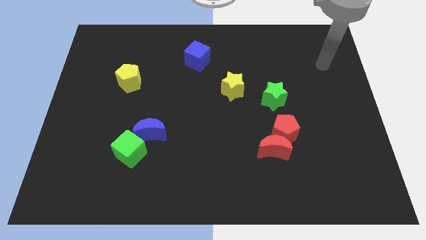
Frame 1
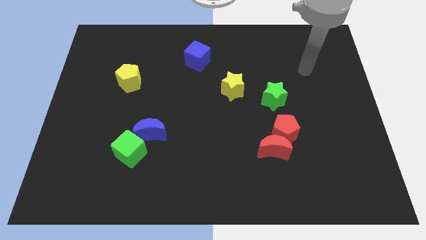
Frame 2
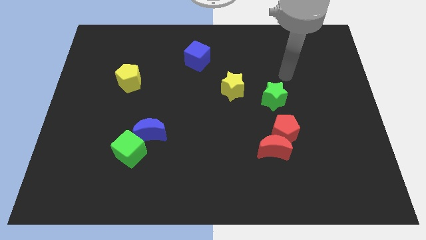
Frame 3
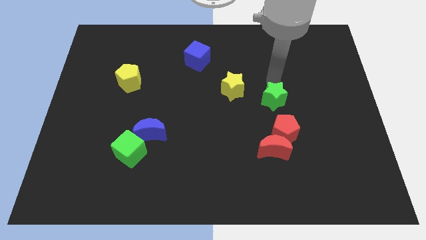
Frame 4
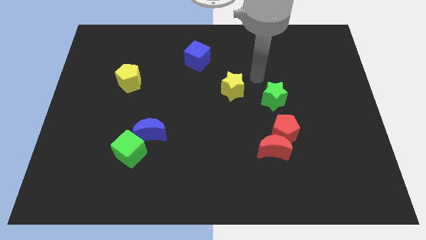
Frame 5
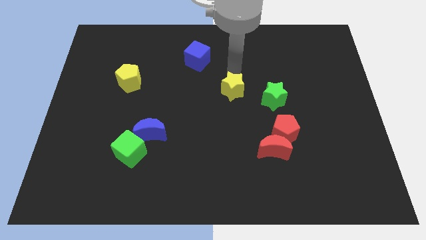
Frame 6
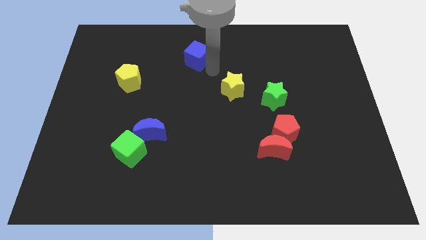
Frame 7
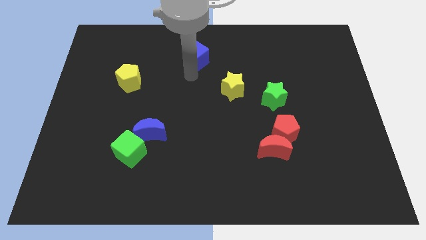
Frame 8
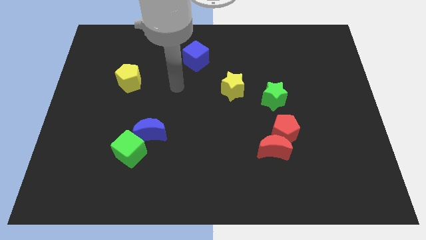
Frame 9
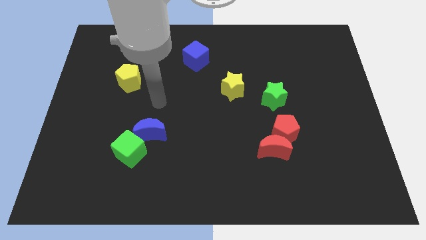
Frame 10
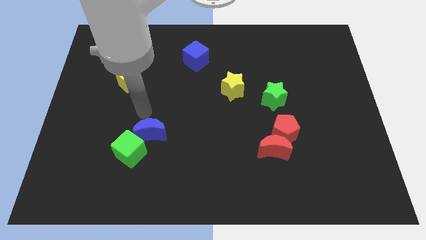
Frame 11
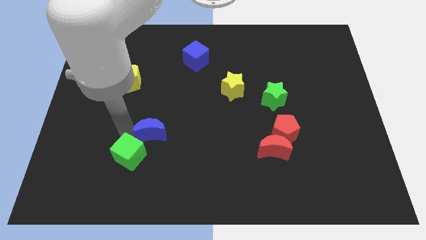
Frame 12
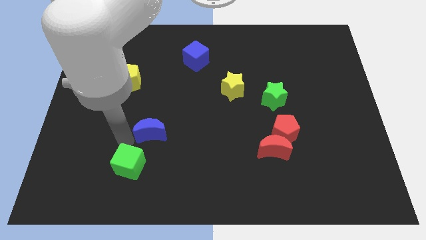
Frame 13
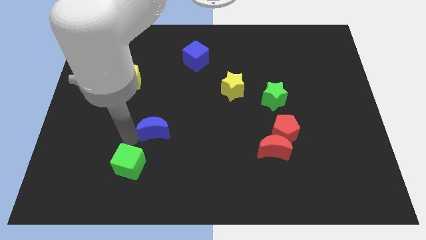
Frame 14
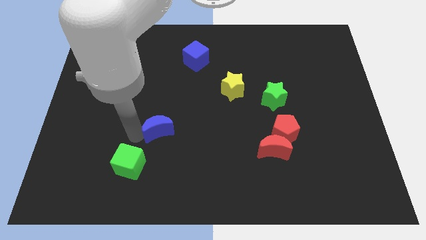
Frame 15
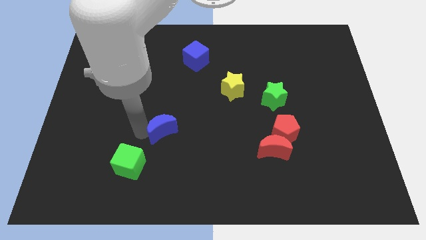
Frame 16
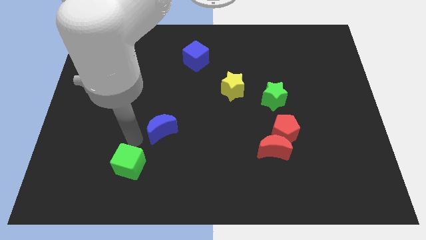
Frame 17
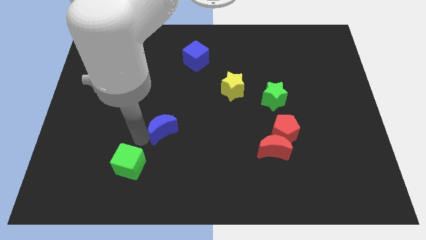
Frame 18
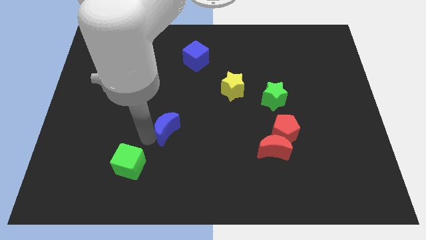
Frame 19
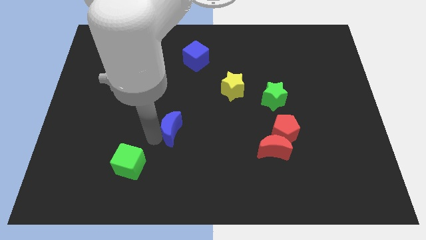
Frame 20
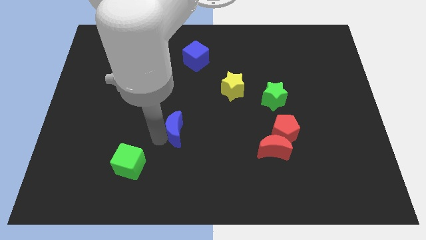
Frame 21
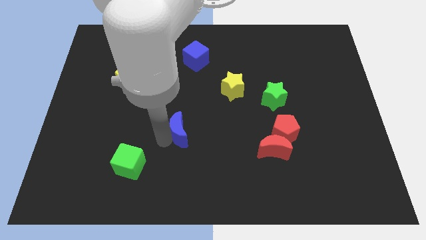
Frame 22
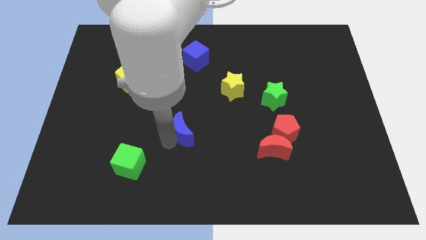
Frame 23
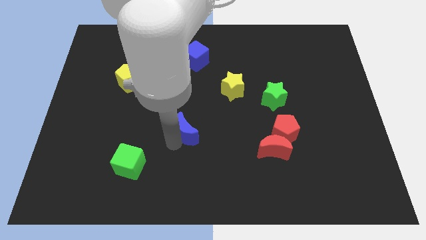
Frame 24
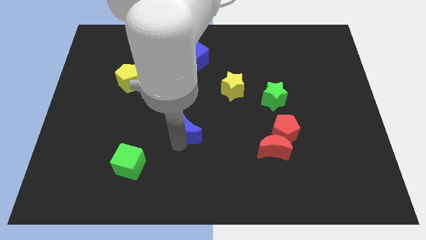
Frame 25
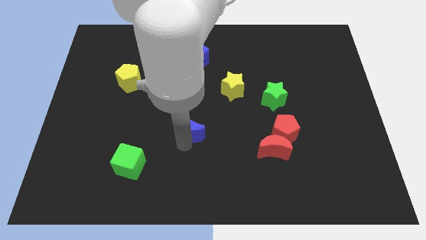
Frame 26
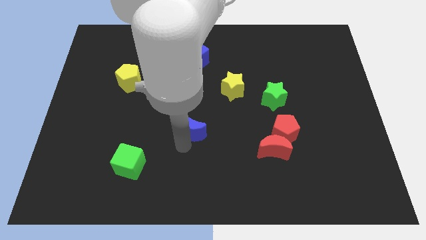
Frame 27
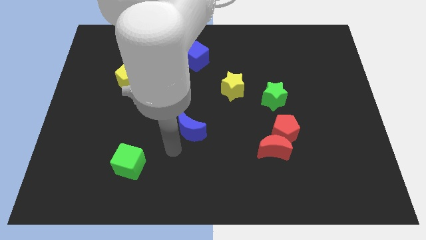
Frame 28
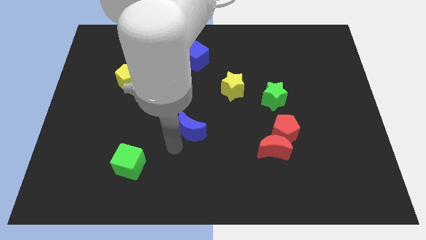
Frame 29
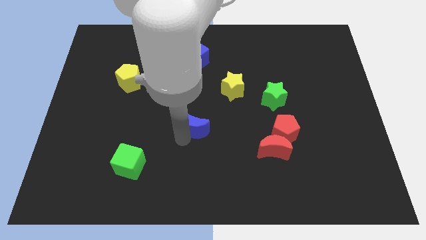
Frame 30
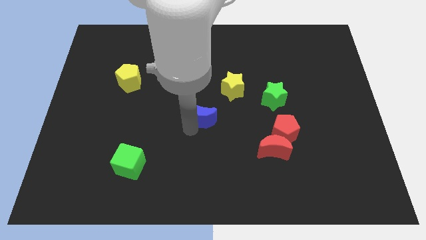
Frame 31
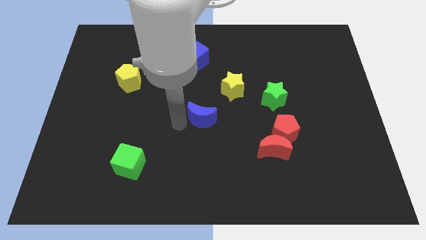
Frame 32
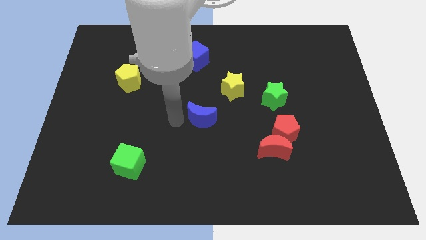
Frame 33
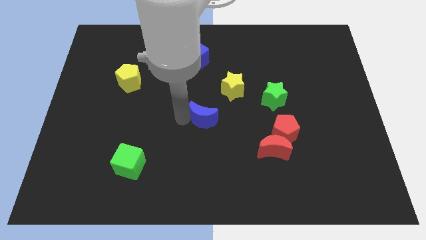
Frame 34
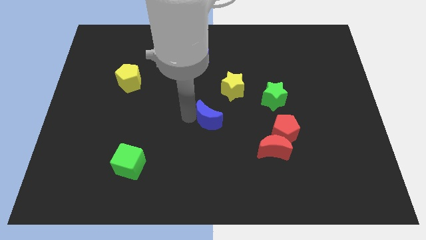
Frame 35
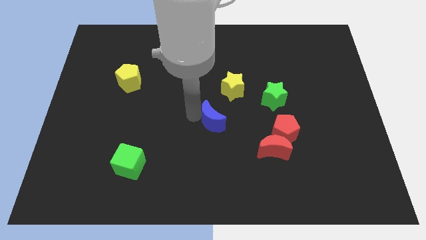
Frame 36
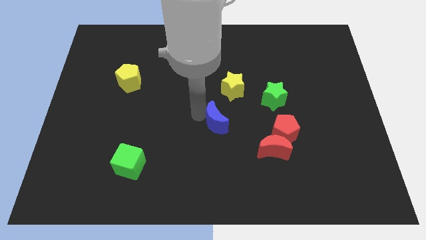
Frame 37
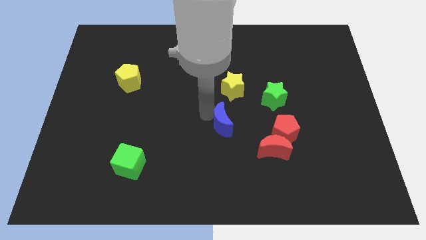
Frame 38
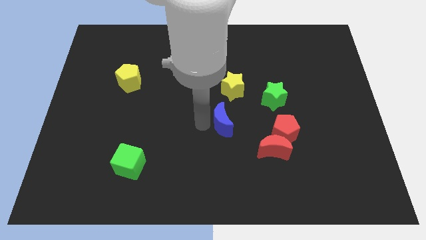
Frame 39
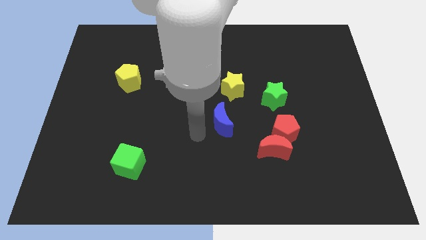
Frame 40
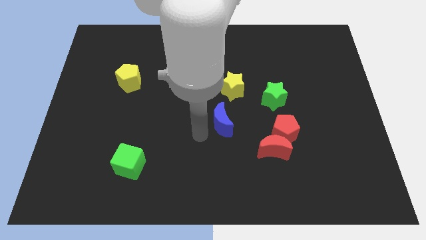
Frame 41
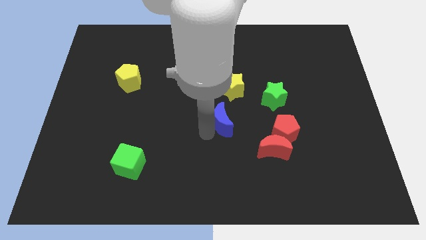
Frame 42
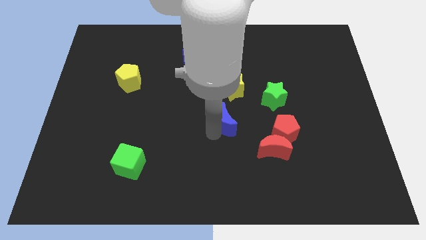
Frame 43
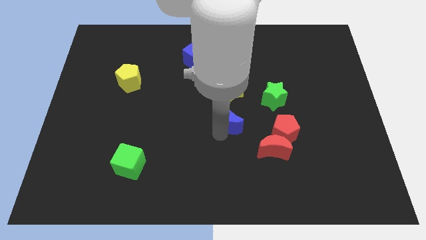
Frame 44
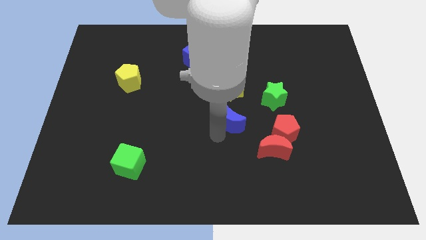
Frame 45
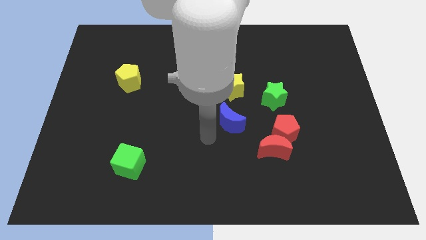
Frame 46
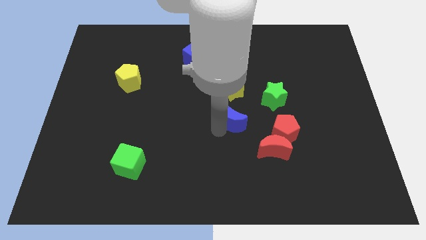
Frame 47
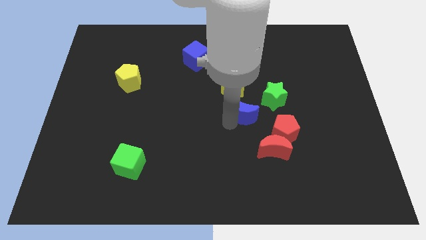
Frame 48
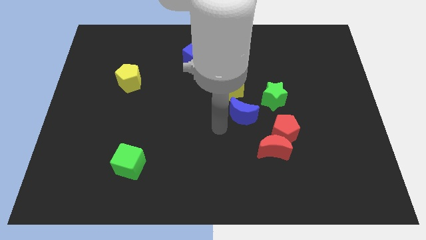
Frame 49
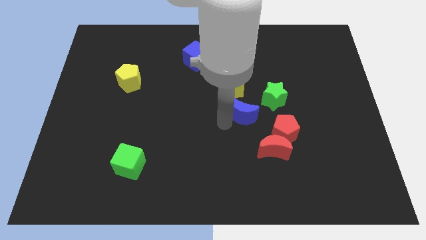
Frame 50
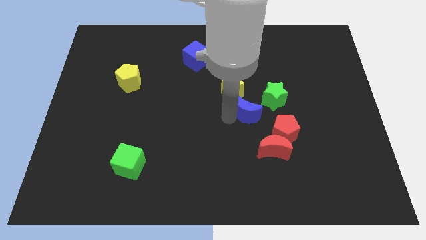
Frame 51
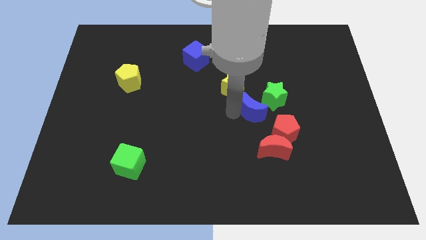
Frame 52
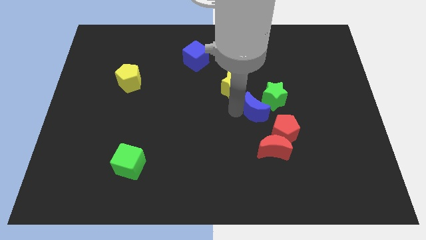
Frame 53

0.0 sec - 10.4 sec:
slide the blue moon towards the green star

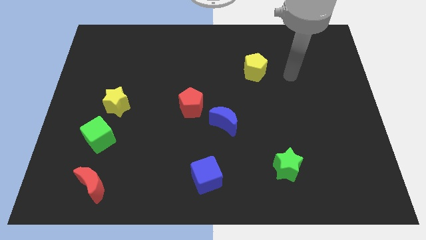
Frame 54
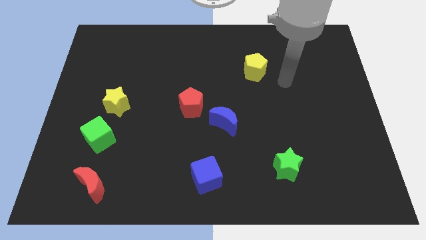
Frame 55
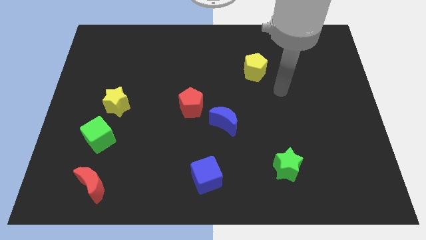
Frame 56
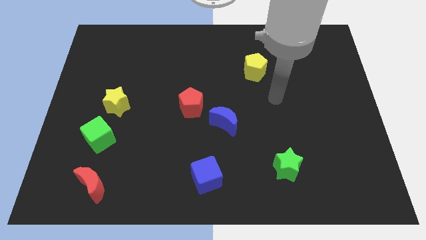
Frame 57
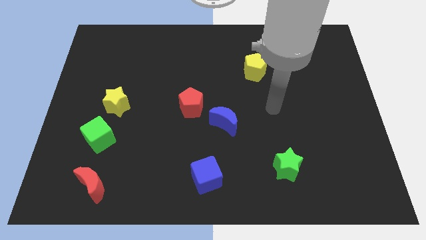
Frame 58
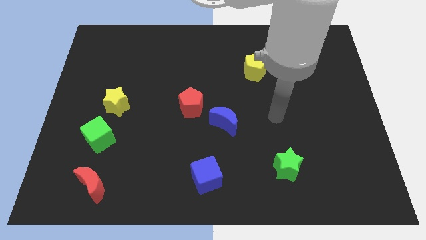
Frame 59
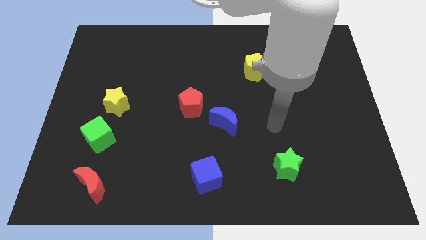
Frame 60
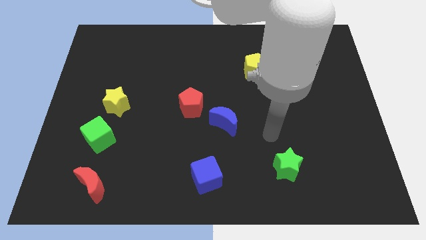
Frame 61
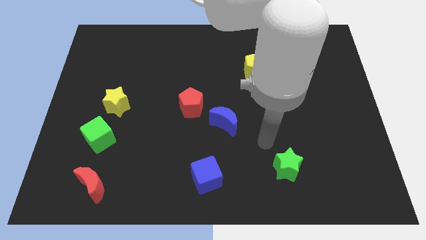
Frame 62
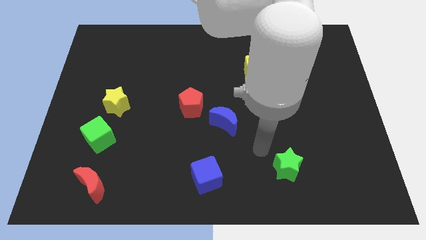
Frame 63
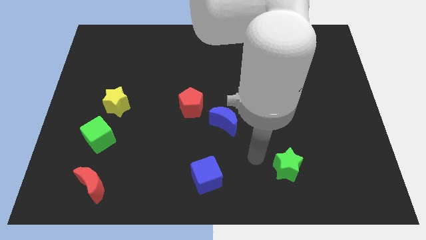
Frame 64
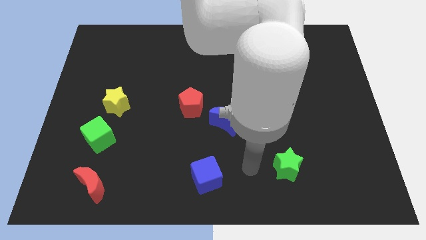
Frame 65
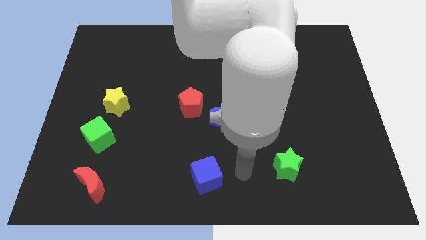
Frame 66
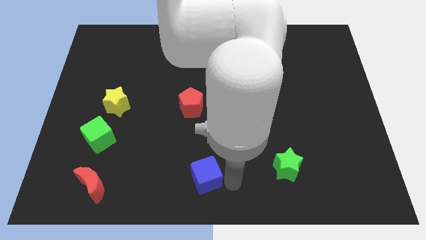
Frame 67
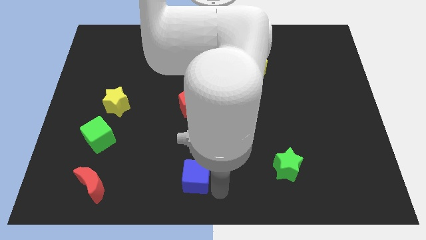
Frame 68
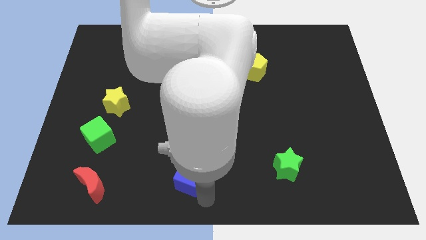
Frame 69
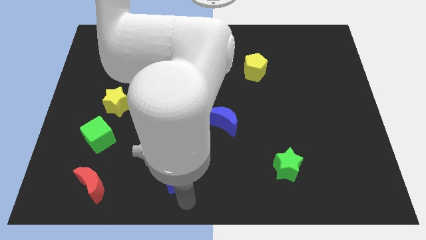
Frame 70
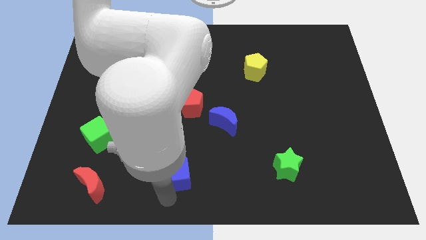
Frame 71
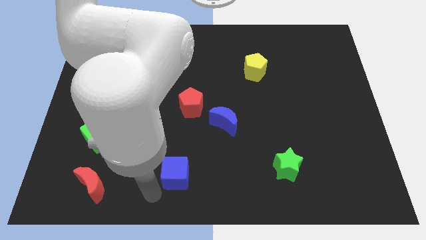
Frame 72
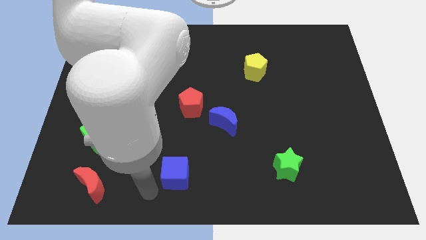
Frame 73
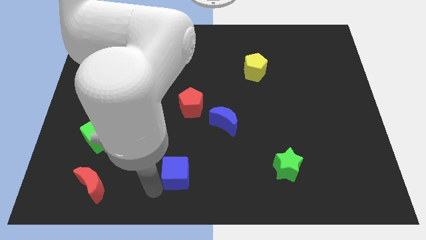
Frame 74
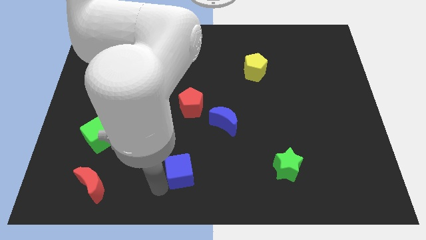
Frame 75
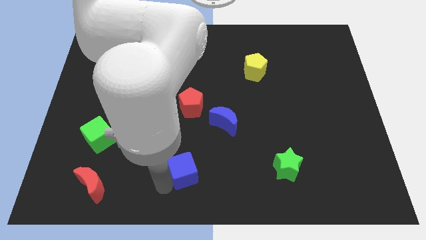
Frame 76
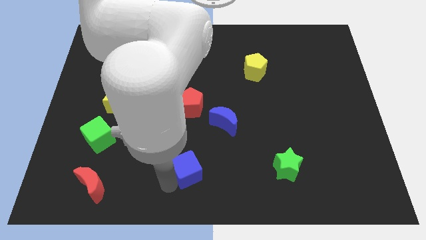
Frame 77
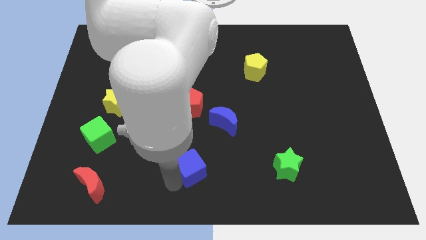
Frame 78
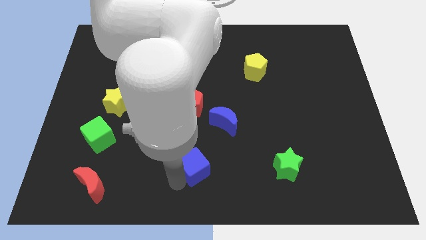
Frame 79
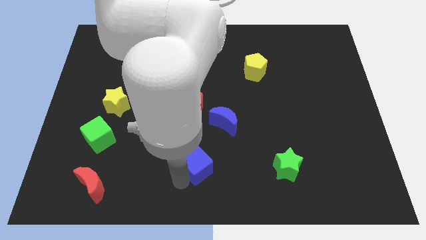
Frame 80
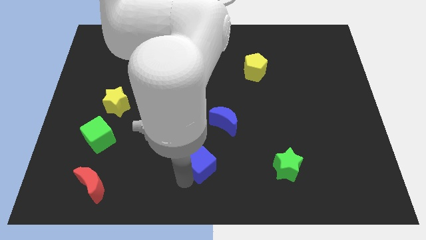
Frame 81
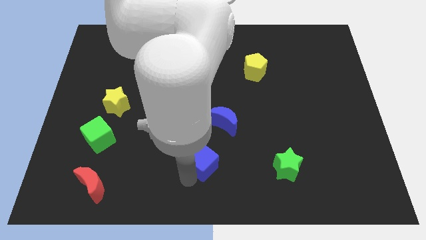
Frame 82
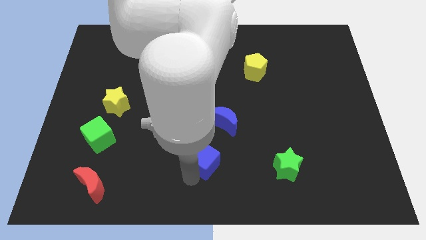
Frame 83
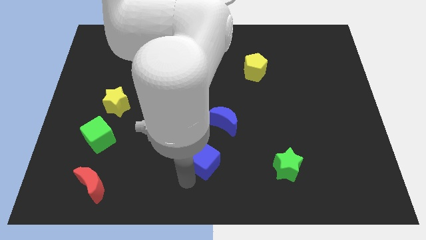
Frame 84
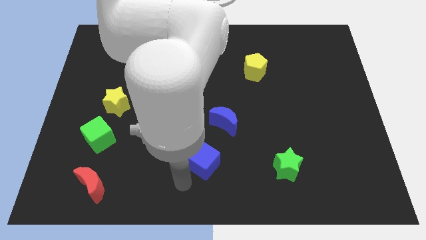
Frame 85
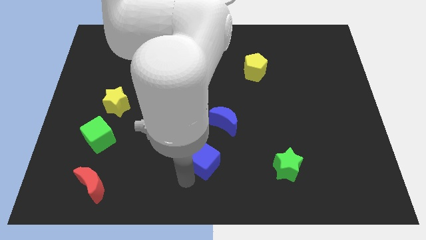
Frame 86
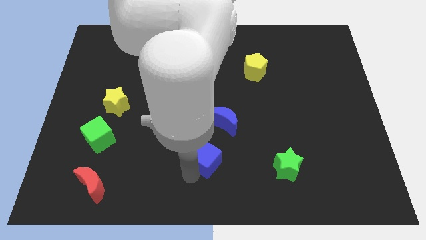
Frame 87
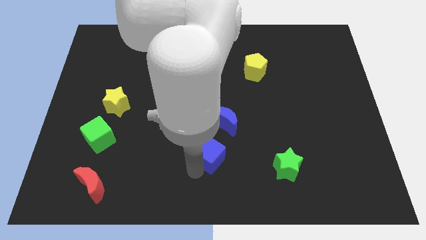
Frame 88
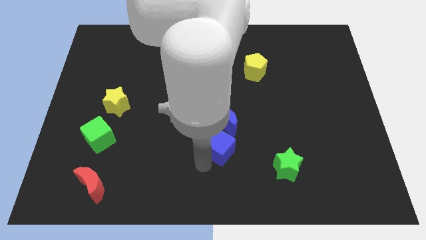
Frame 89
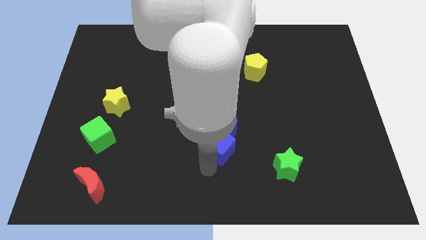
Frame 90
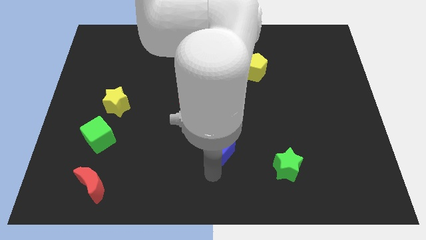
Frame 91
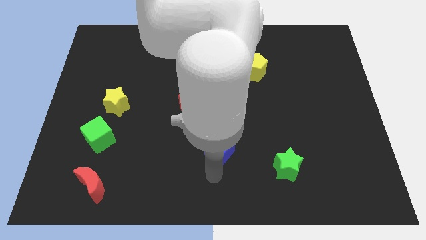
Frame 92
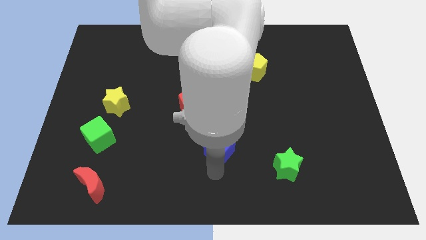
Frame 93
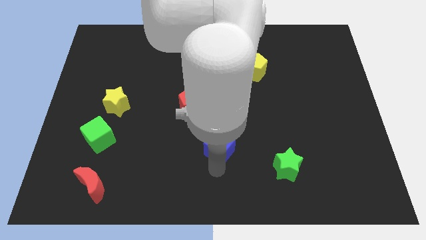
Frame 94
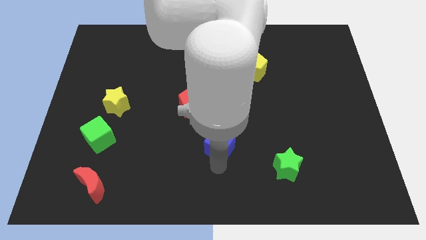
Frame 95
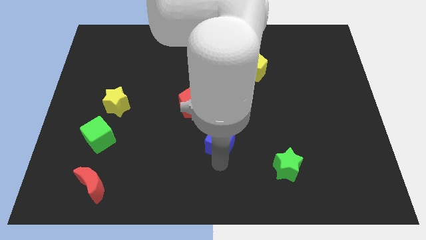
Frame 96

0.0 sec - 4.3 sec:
put the blue cube next to the blue moon
